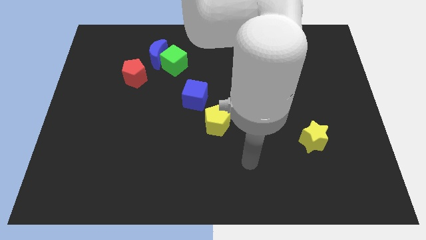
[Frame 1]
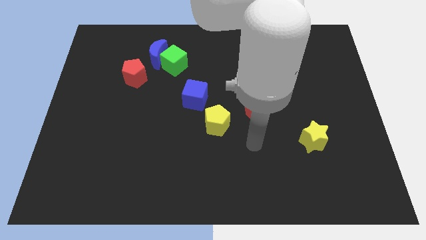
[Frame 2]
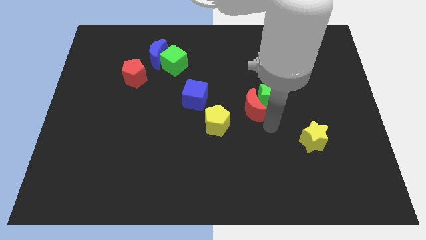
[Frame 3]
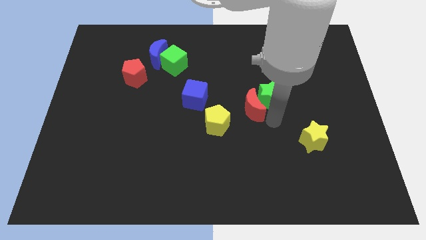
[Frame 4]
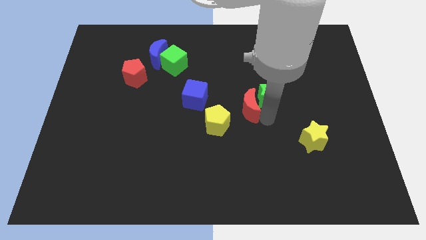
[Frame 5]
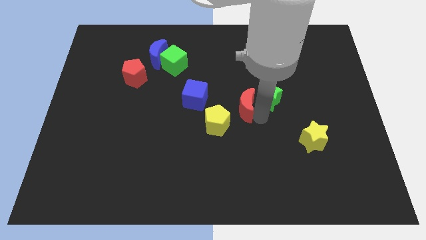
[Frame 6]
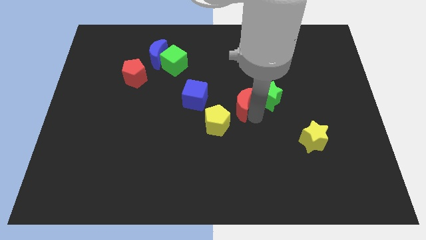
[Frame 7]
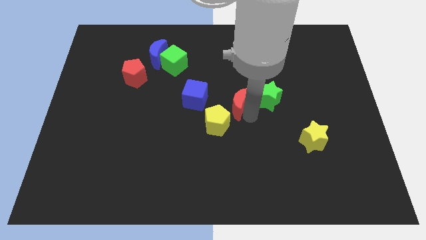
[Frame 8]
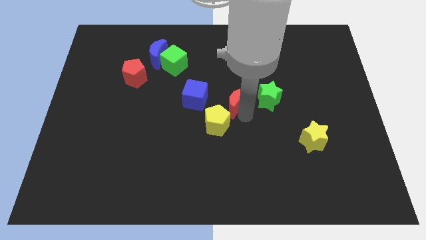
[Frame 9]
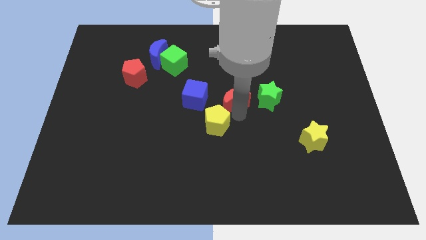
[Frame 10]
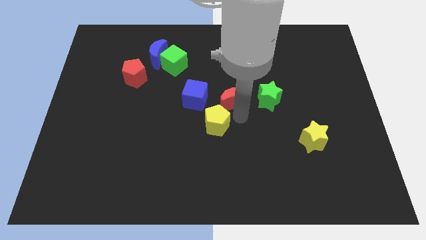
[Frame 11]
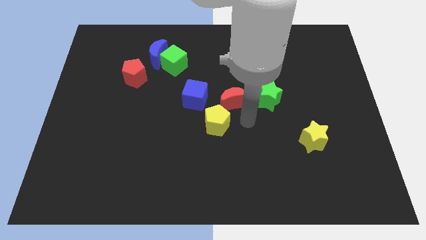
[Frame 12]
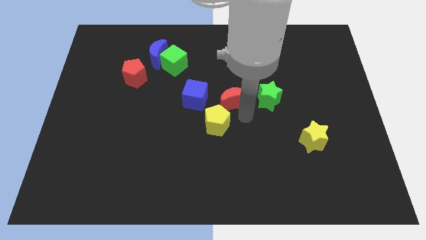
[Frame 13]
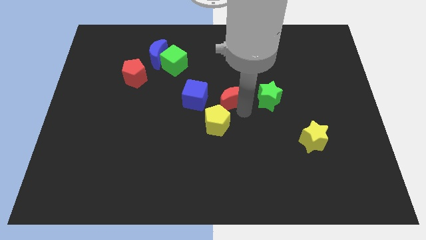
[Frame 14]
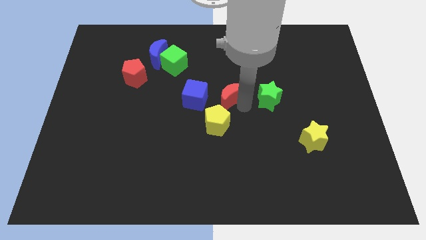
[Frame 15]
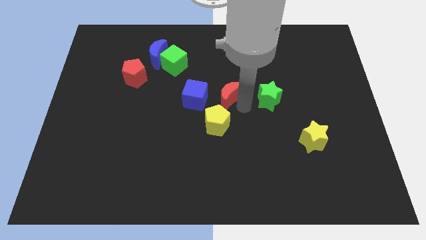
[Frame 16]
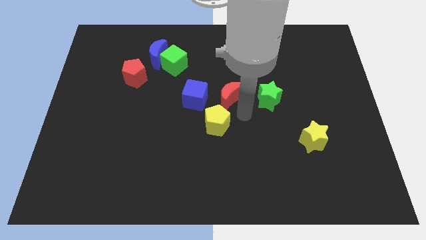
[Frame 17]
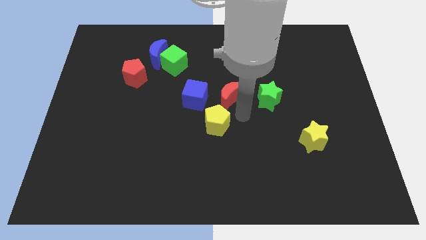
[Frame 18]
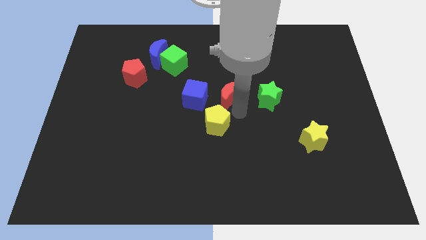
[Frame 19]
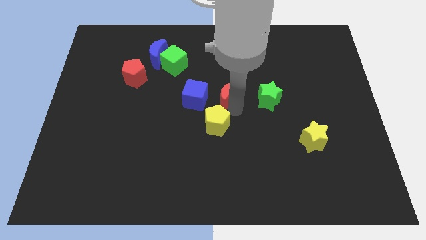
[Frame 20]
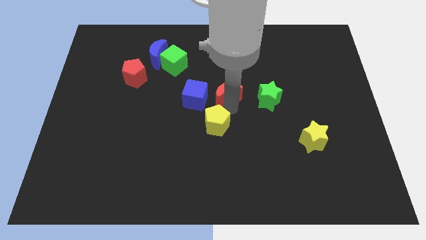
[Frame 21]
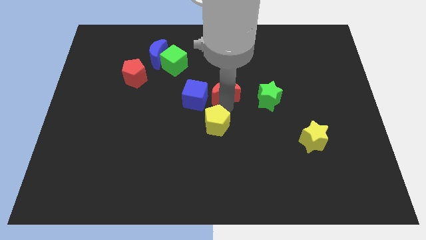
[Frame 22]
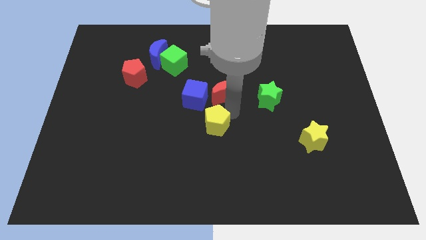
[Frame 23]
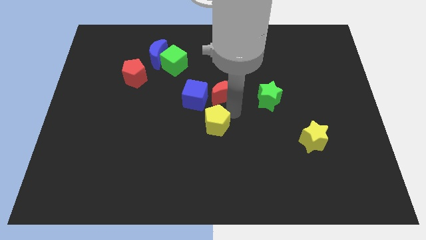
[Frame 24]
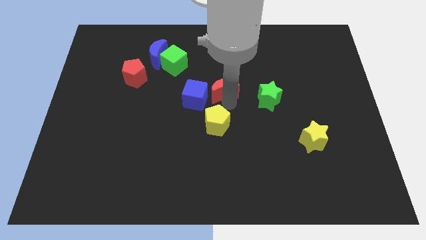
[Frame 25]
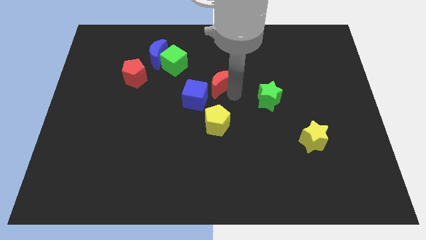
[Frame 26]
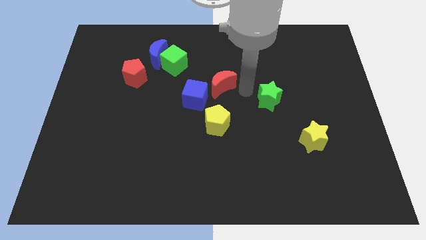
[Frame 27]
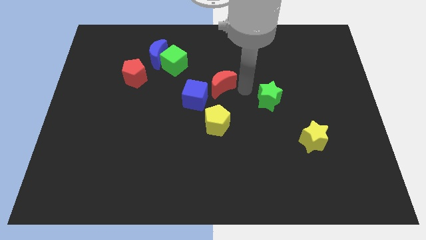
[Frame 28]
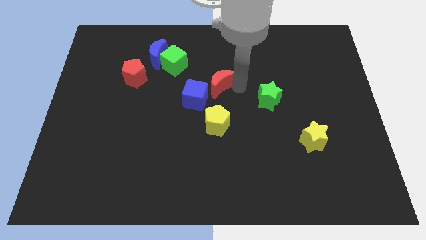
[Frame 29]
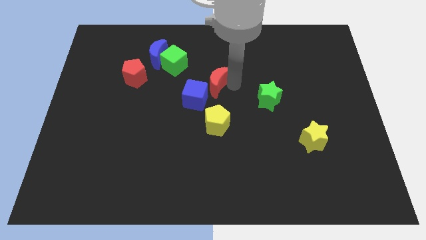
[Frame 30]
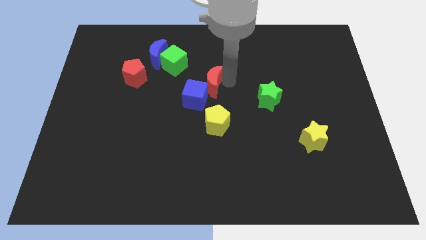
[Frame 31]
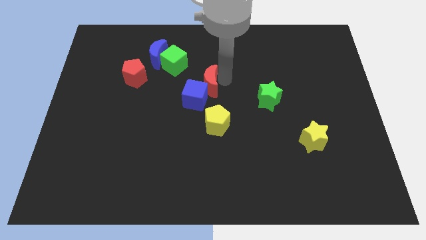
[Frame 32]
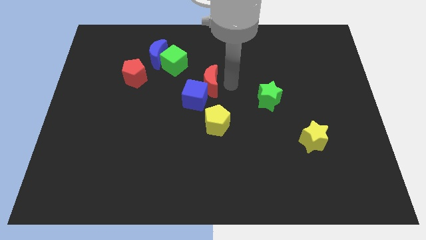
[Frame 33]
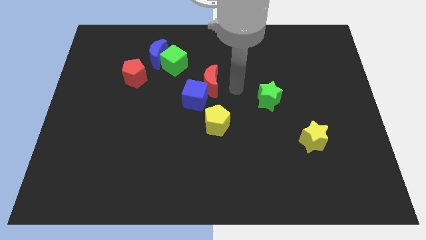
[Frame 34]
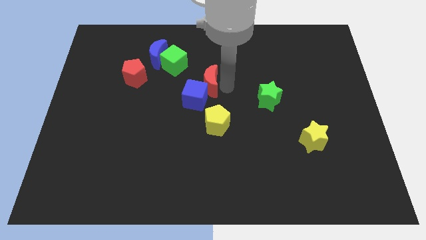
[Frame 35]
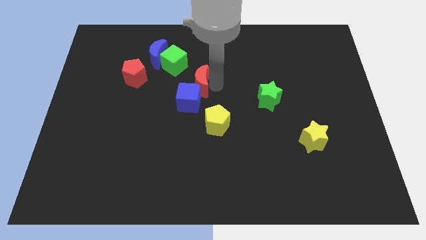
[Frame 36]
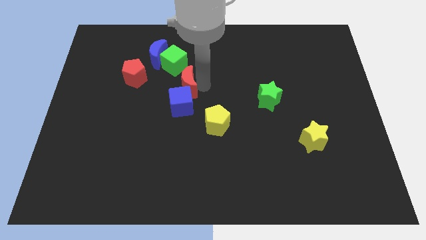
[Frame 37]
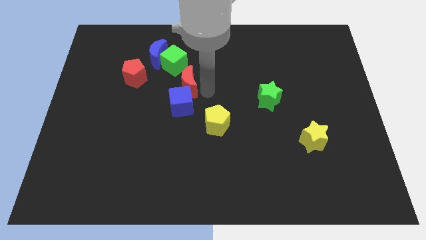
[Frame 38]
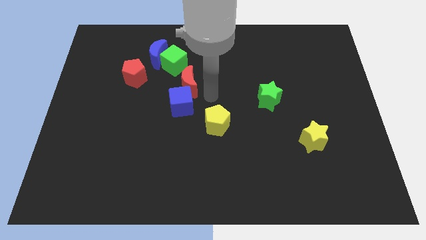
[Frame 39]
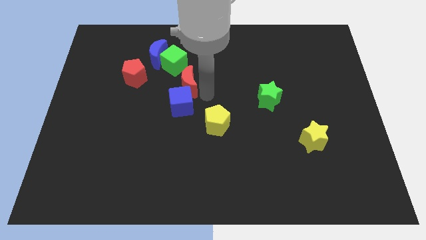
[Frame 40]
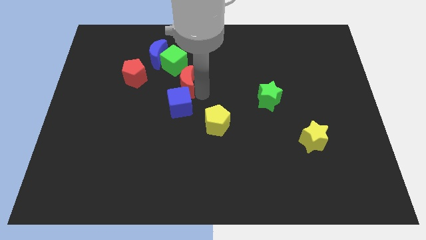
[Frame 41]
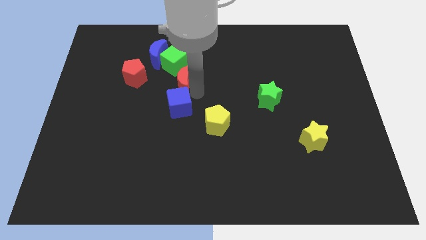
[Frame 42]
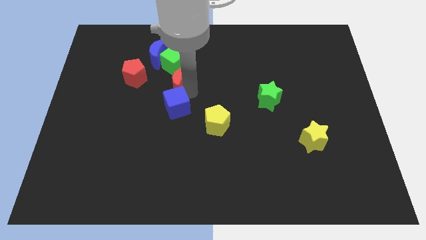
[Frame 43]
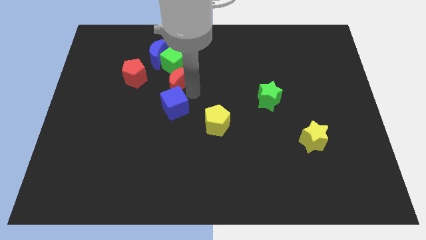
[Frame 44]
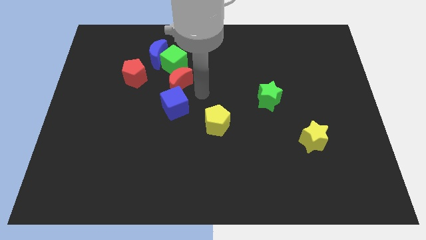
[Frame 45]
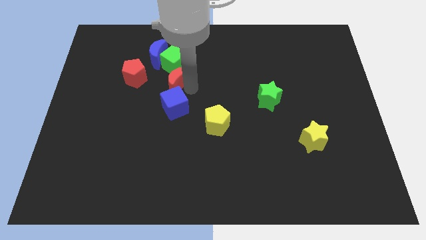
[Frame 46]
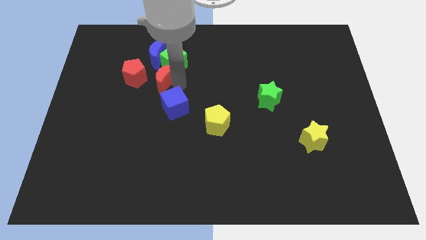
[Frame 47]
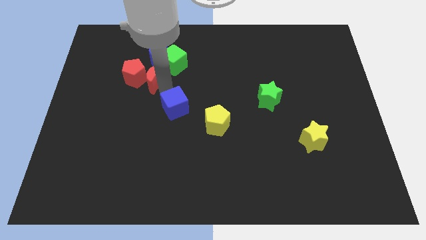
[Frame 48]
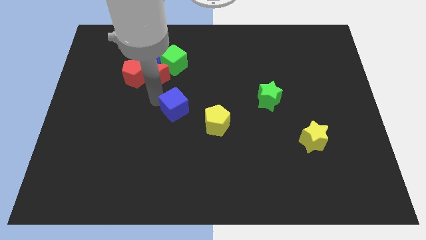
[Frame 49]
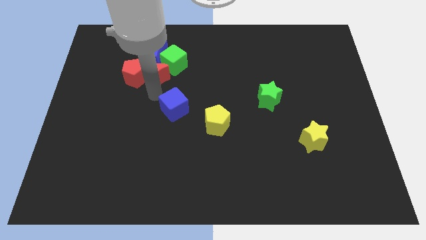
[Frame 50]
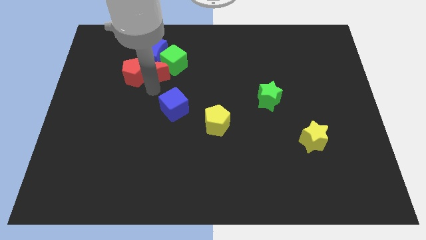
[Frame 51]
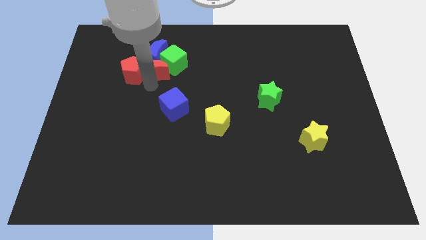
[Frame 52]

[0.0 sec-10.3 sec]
move the red moon close to the blue moon

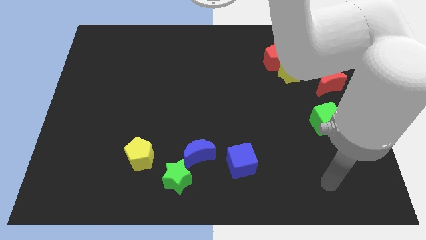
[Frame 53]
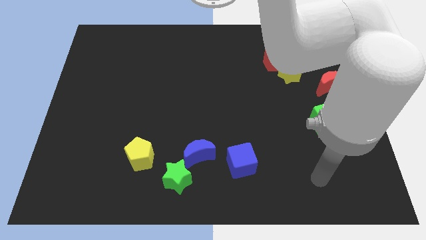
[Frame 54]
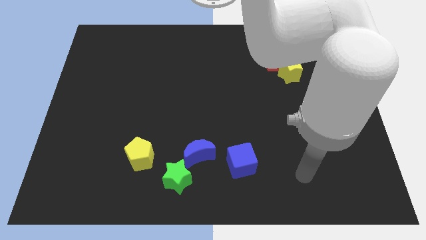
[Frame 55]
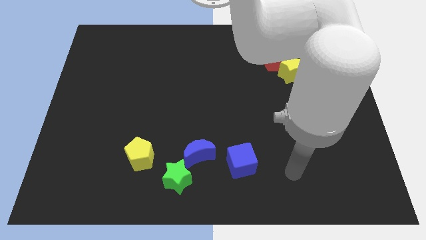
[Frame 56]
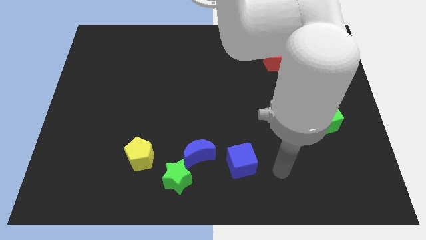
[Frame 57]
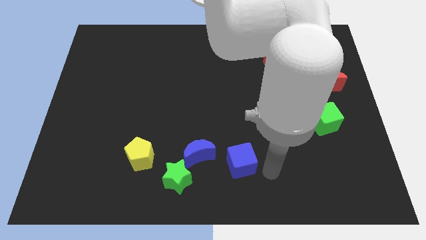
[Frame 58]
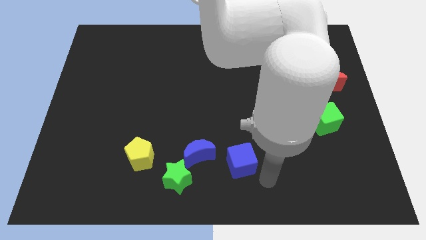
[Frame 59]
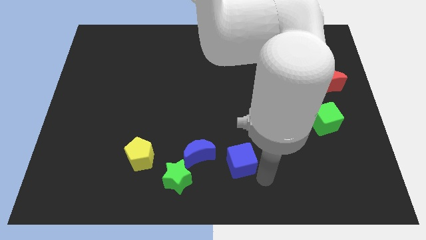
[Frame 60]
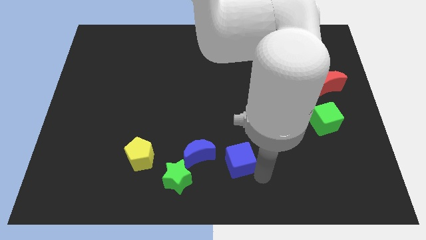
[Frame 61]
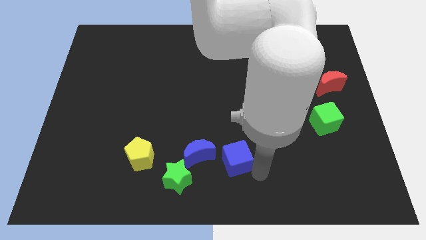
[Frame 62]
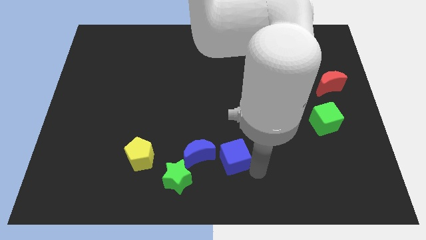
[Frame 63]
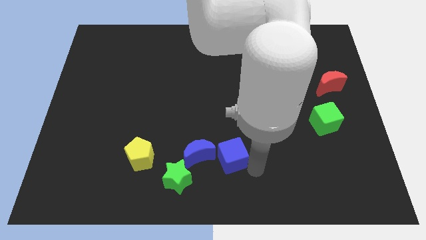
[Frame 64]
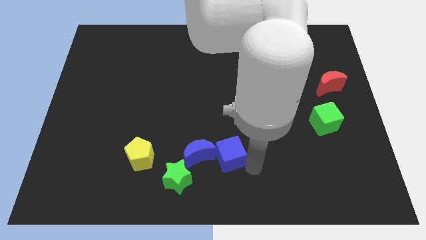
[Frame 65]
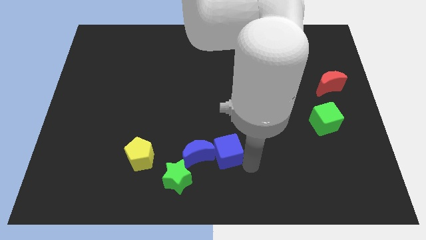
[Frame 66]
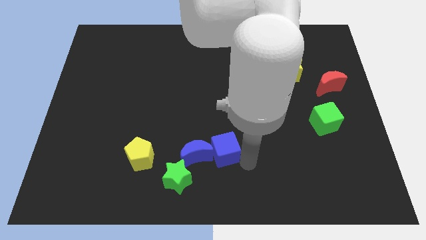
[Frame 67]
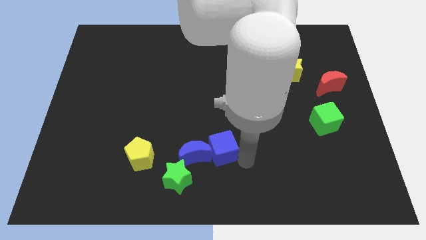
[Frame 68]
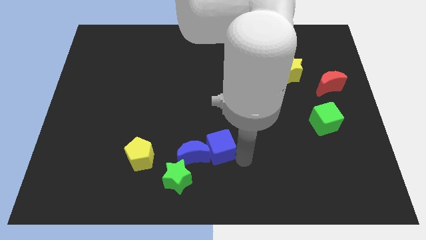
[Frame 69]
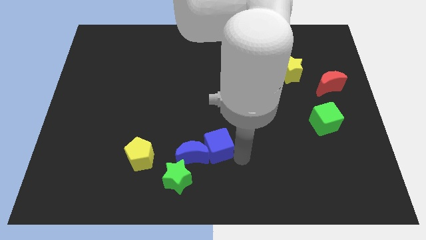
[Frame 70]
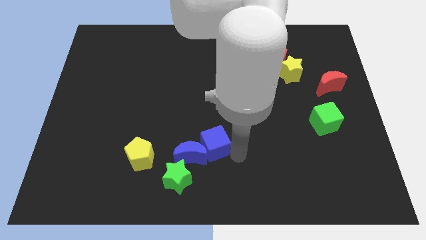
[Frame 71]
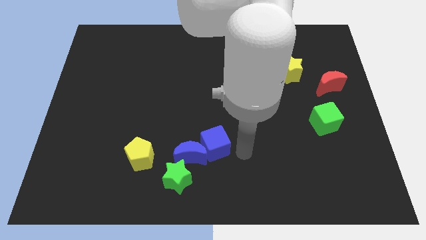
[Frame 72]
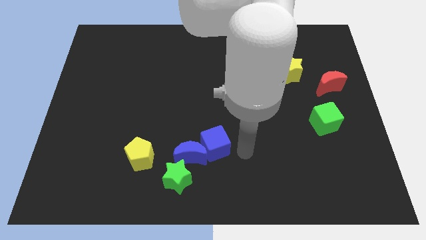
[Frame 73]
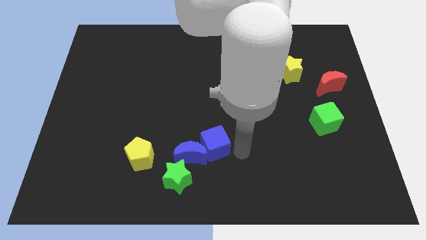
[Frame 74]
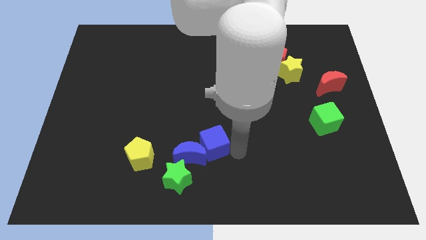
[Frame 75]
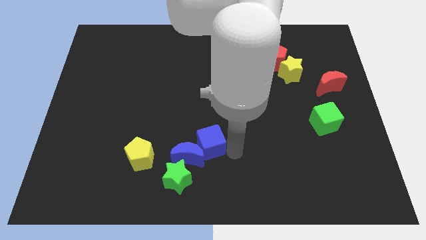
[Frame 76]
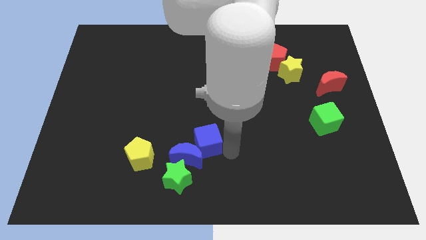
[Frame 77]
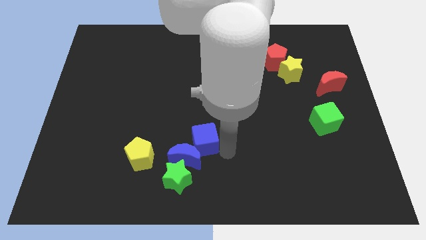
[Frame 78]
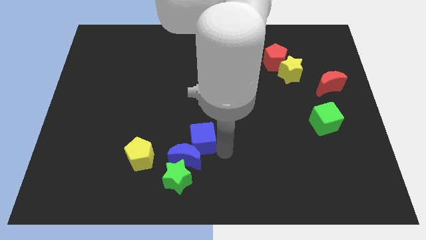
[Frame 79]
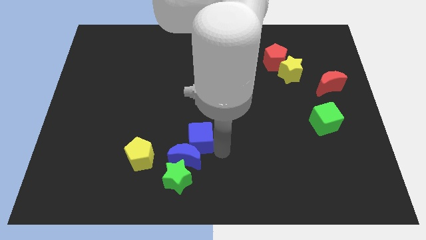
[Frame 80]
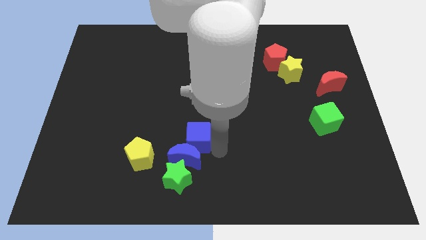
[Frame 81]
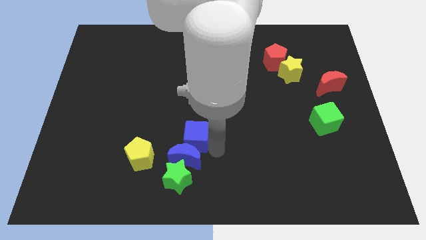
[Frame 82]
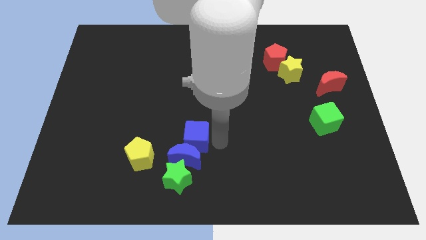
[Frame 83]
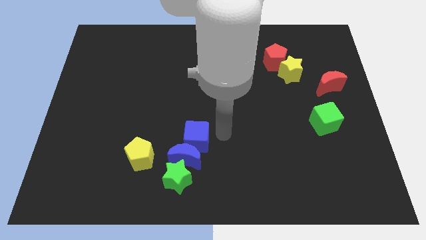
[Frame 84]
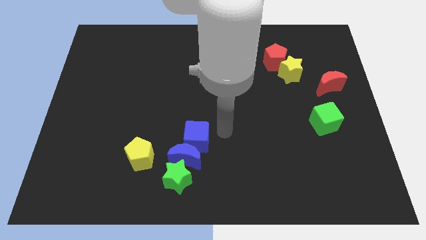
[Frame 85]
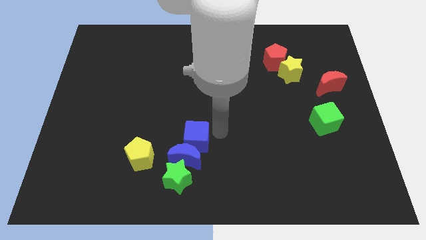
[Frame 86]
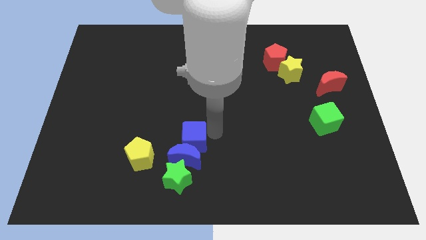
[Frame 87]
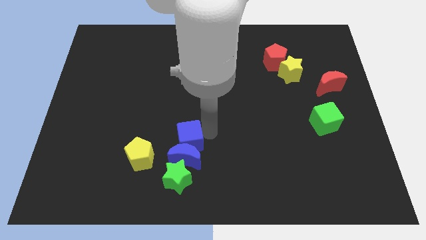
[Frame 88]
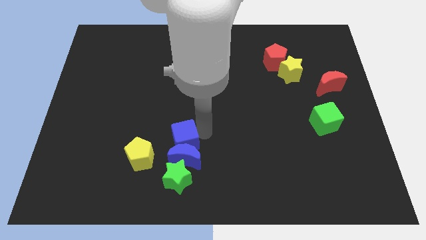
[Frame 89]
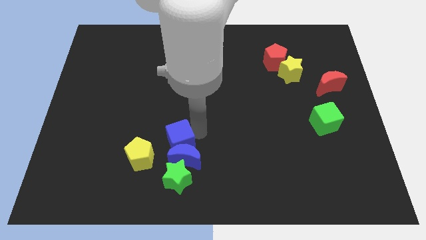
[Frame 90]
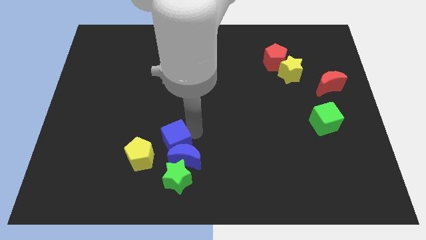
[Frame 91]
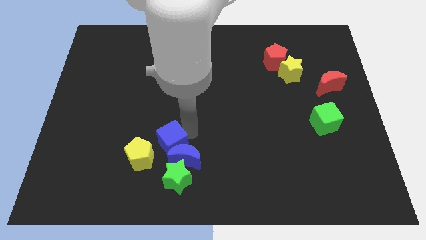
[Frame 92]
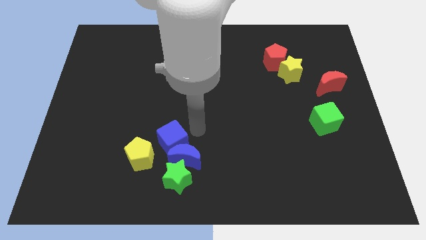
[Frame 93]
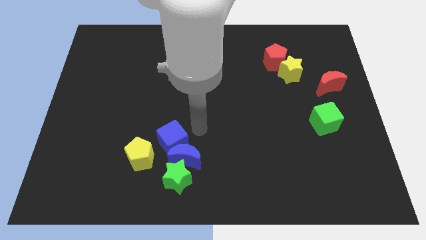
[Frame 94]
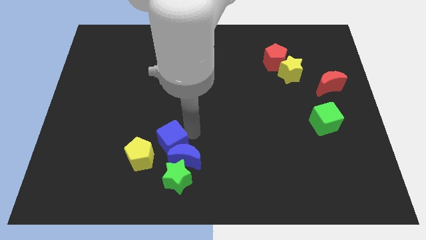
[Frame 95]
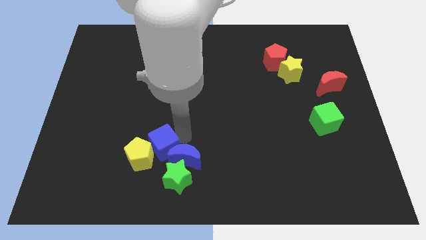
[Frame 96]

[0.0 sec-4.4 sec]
move the blue cube close to the yellow pentagon
